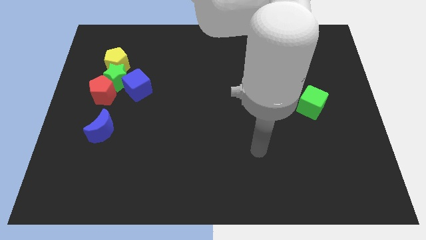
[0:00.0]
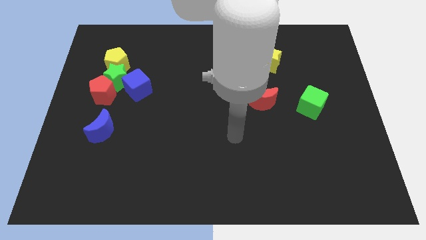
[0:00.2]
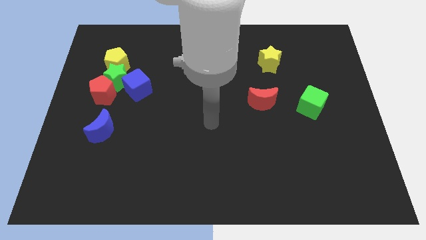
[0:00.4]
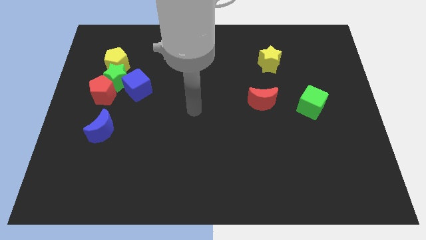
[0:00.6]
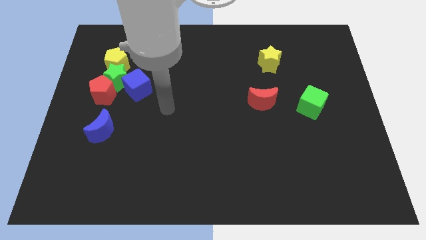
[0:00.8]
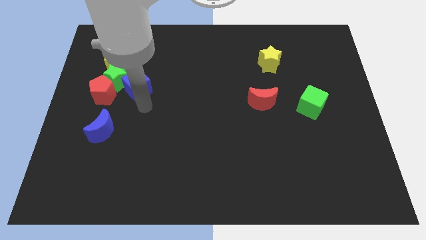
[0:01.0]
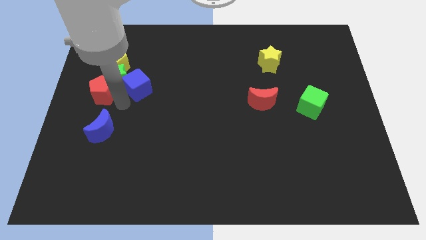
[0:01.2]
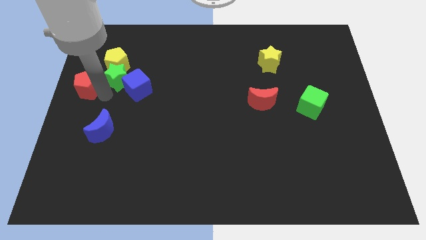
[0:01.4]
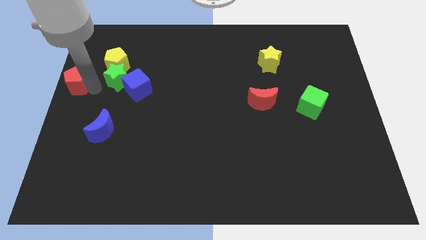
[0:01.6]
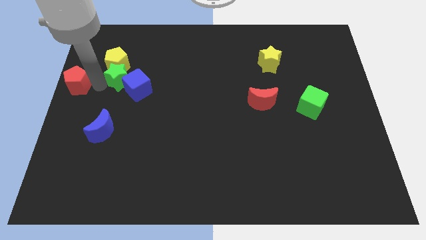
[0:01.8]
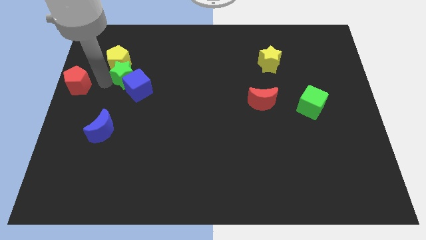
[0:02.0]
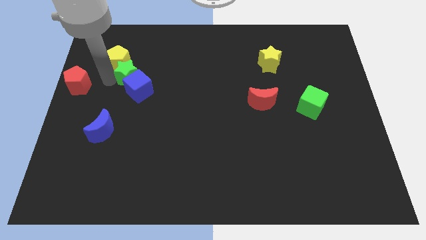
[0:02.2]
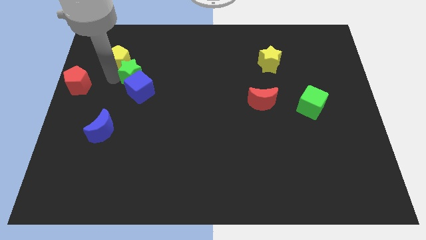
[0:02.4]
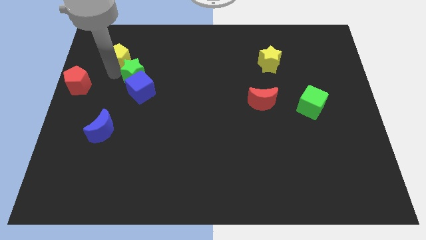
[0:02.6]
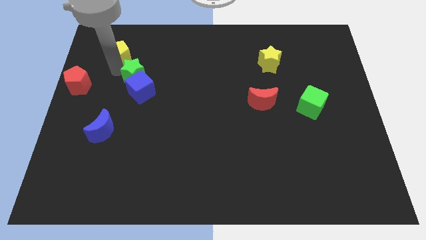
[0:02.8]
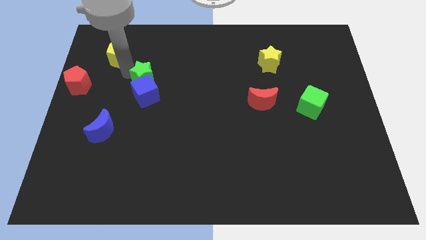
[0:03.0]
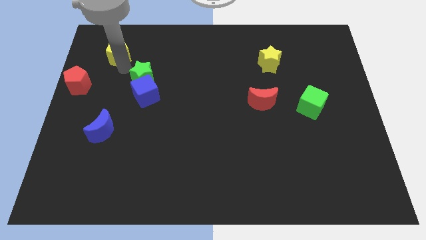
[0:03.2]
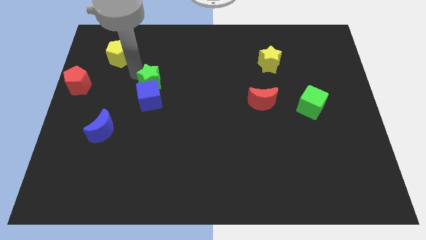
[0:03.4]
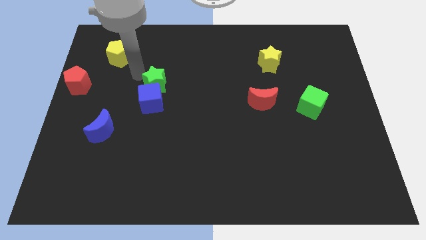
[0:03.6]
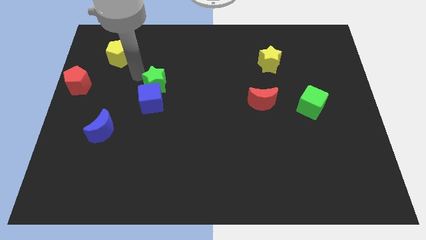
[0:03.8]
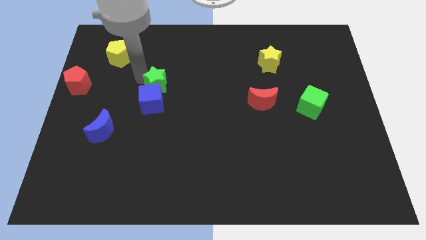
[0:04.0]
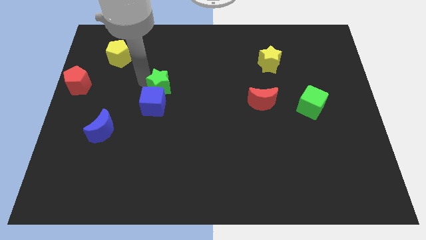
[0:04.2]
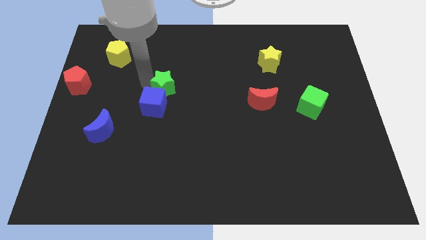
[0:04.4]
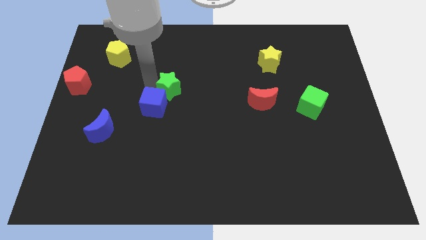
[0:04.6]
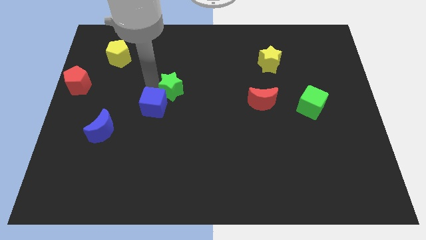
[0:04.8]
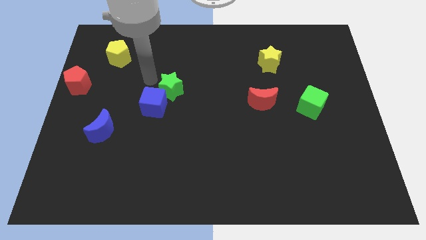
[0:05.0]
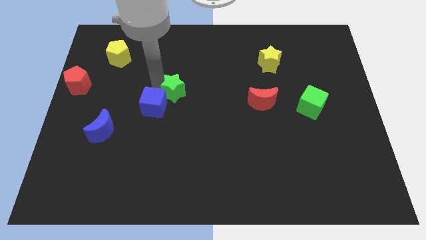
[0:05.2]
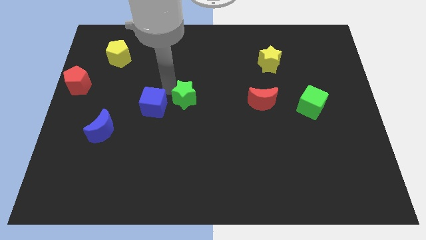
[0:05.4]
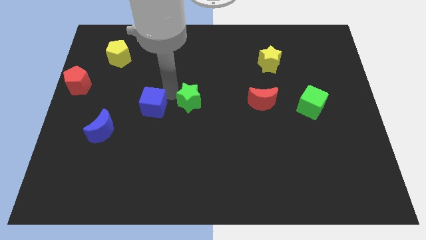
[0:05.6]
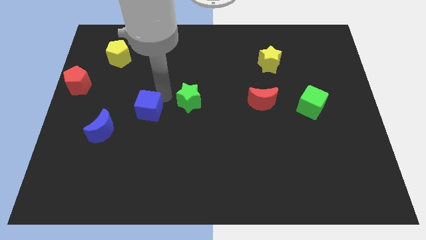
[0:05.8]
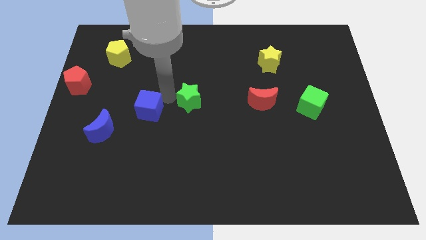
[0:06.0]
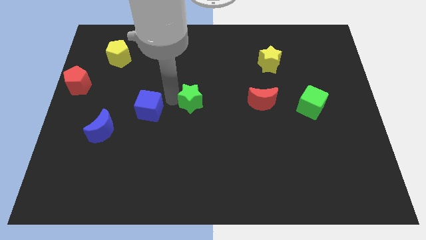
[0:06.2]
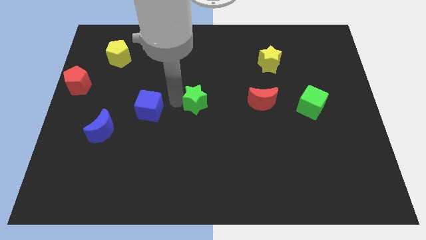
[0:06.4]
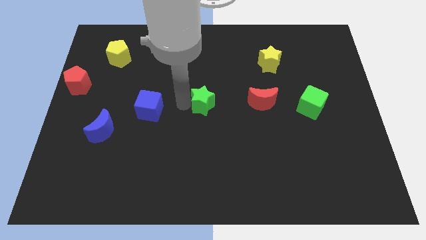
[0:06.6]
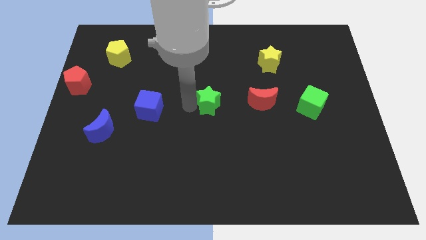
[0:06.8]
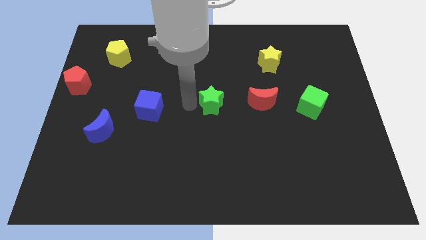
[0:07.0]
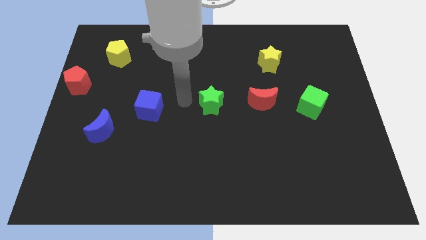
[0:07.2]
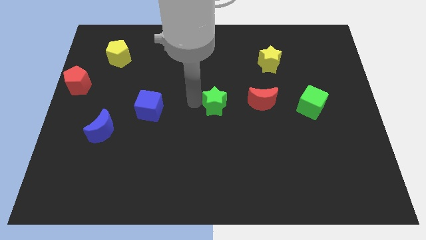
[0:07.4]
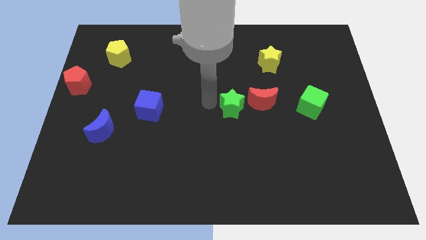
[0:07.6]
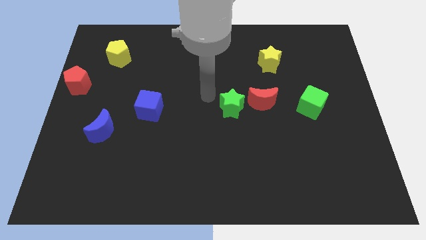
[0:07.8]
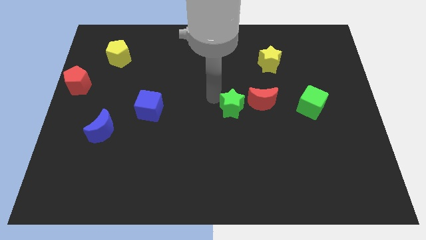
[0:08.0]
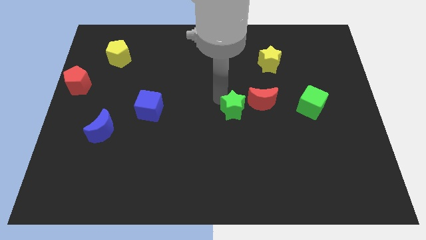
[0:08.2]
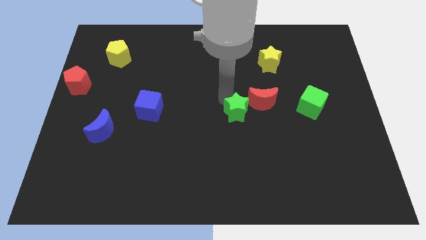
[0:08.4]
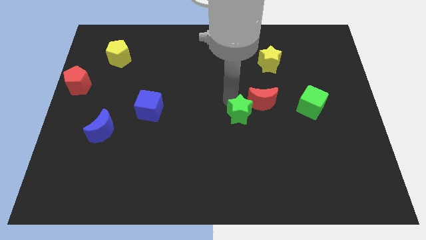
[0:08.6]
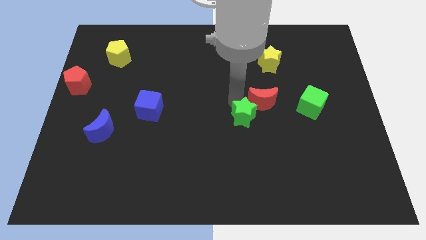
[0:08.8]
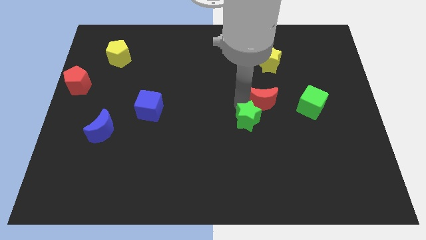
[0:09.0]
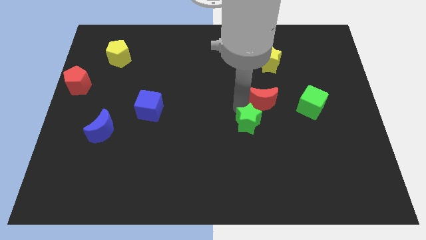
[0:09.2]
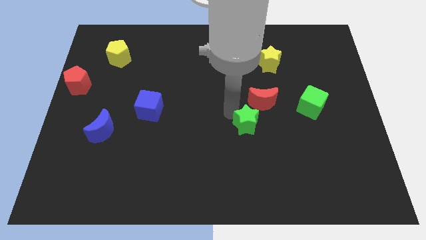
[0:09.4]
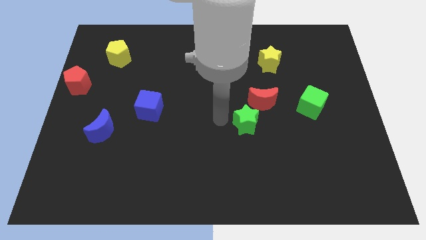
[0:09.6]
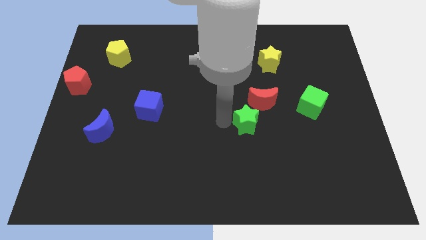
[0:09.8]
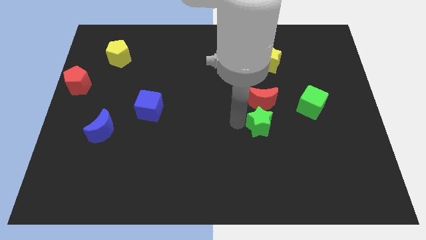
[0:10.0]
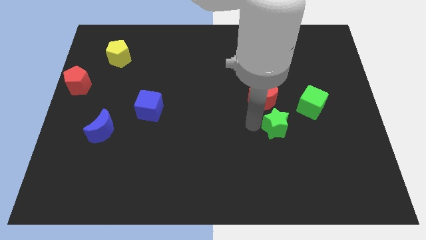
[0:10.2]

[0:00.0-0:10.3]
slide the green star diagonally down and to the left of the green cube

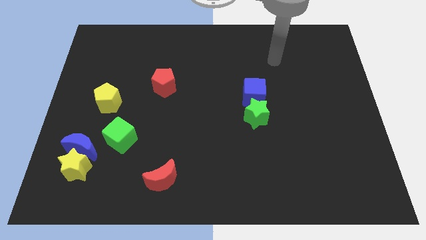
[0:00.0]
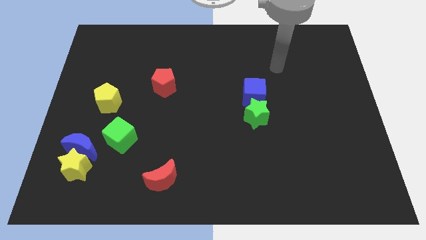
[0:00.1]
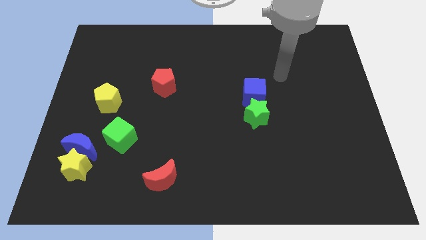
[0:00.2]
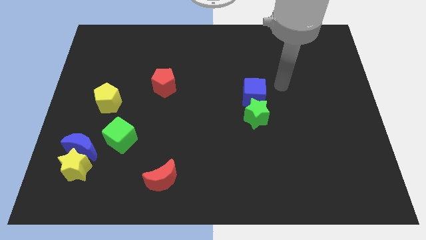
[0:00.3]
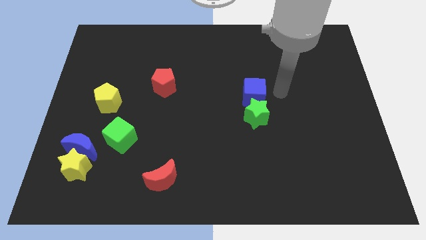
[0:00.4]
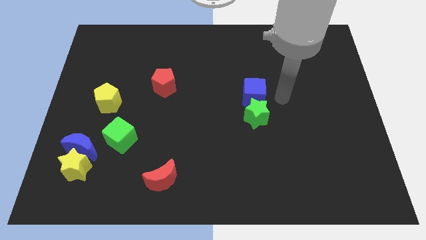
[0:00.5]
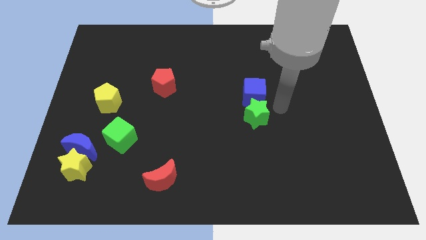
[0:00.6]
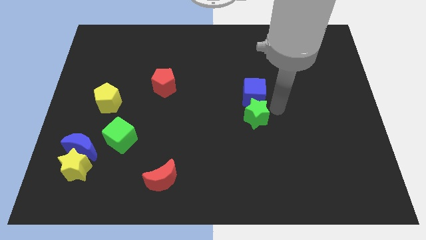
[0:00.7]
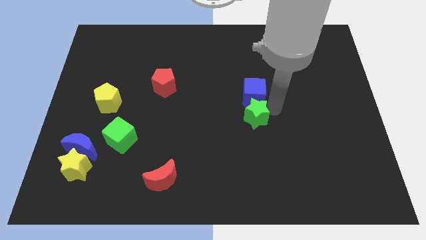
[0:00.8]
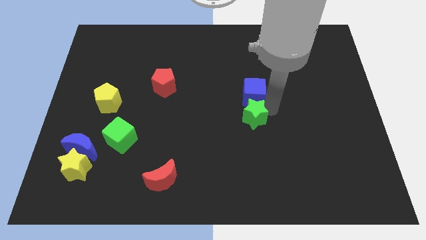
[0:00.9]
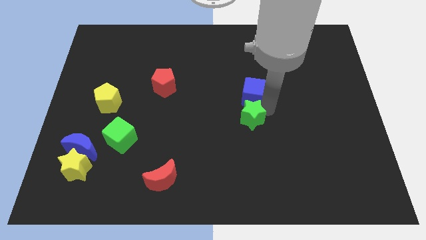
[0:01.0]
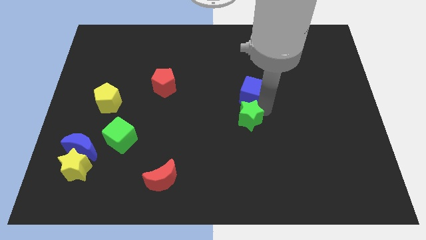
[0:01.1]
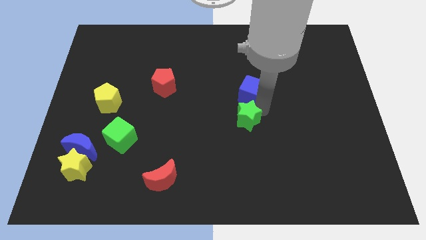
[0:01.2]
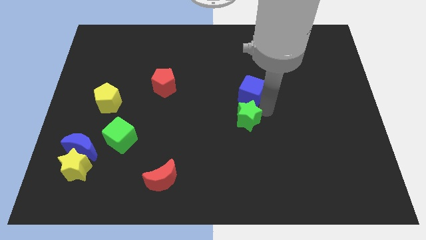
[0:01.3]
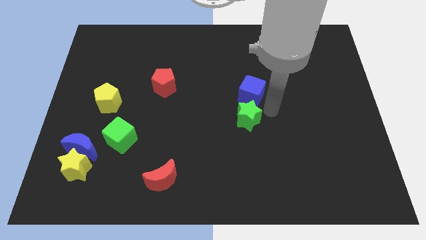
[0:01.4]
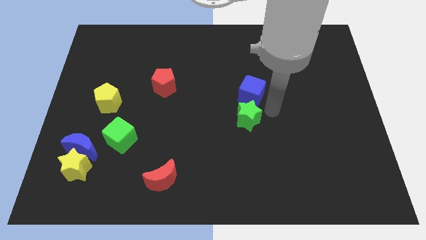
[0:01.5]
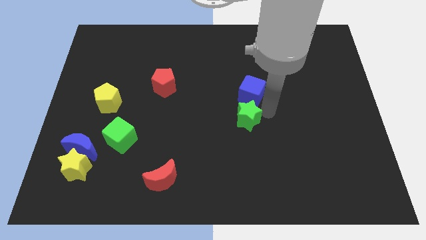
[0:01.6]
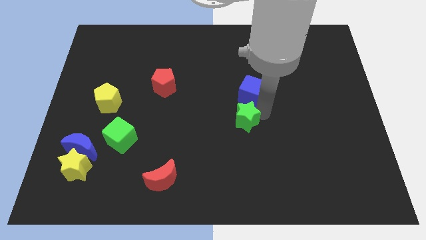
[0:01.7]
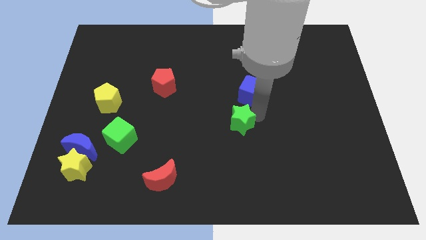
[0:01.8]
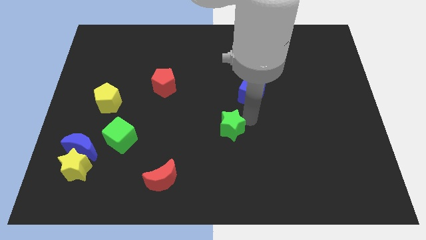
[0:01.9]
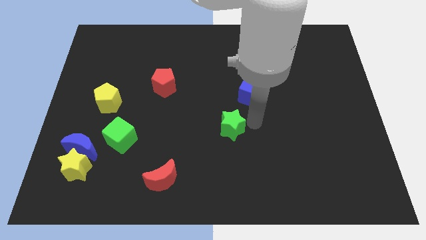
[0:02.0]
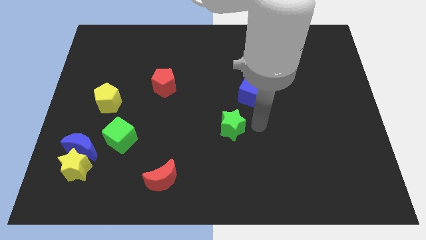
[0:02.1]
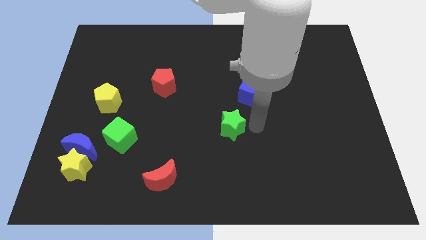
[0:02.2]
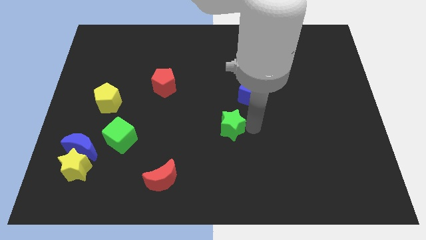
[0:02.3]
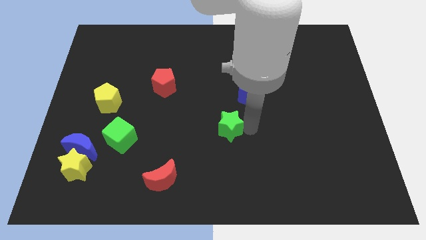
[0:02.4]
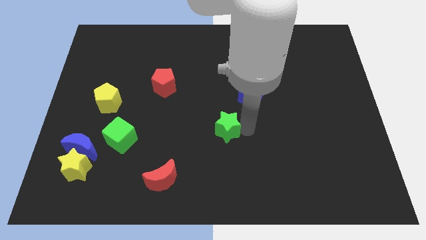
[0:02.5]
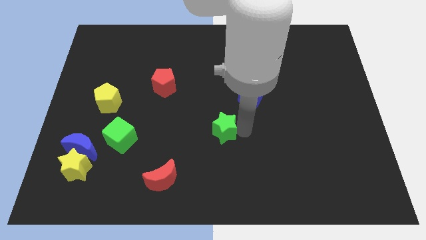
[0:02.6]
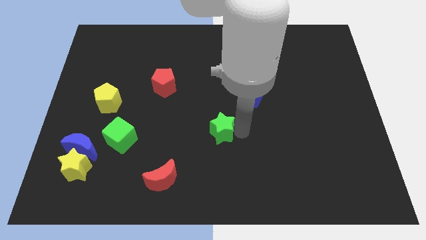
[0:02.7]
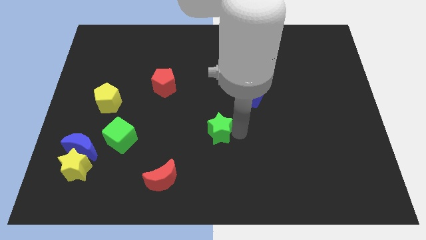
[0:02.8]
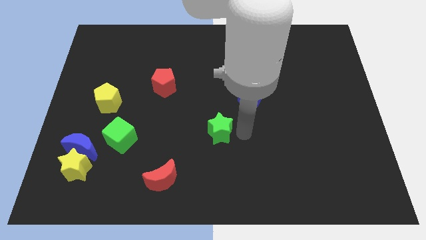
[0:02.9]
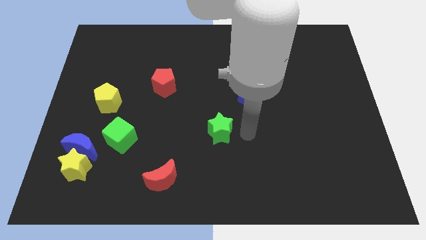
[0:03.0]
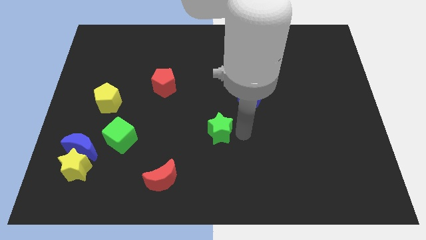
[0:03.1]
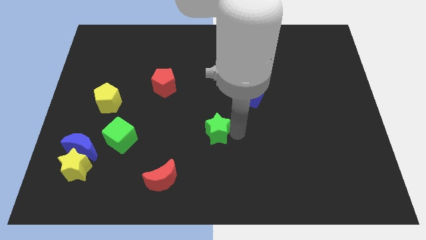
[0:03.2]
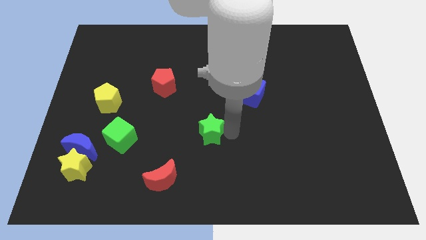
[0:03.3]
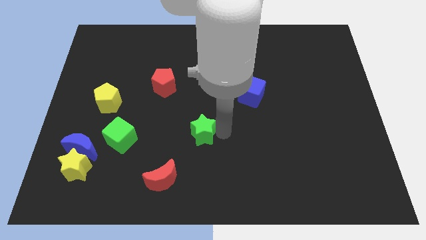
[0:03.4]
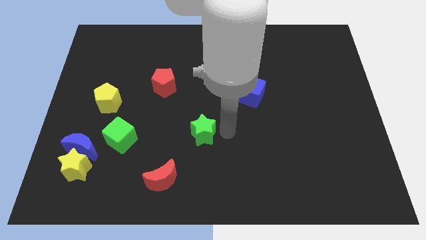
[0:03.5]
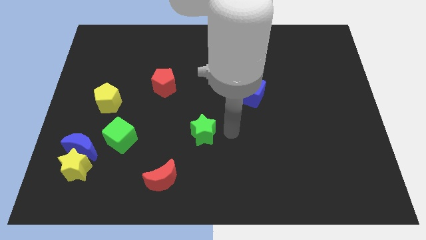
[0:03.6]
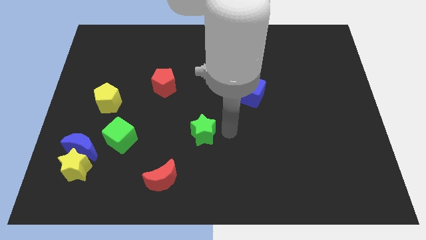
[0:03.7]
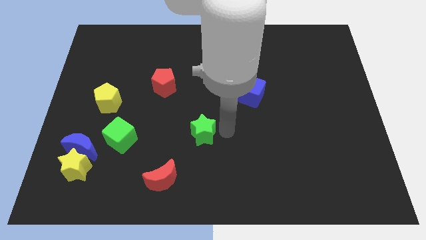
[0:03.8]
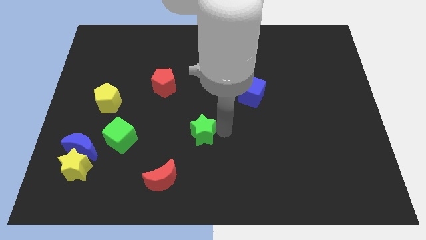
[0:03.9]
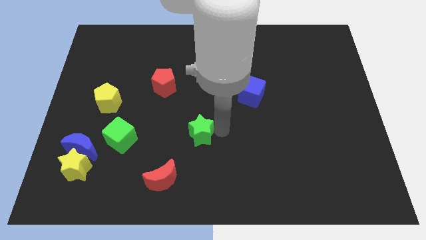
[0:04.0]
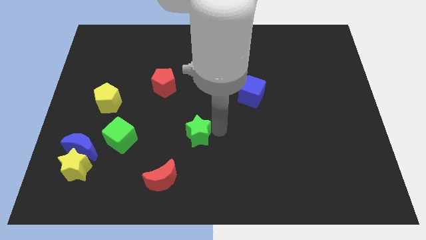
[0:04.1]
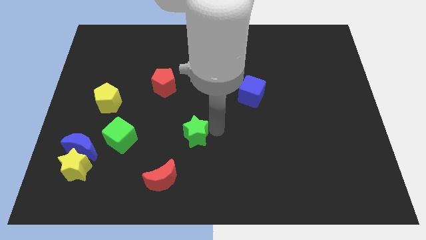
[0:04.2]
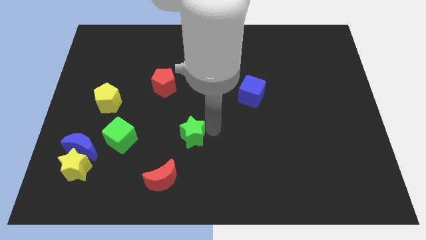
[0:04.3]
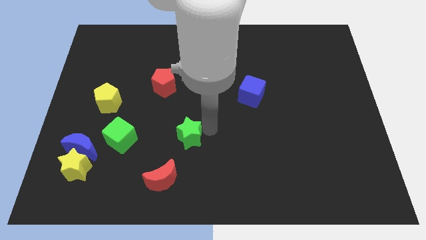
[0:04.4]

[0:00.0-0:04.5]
move the green star above the red moon
